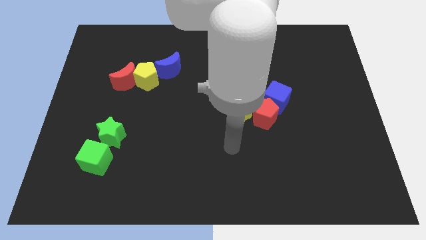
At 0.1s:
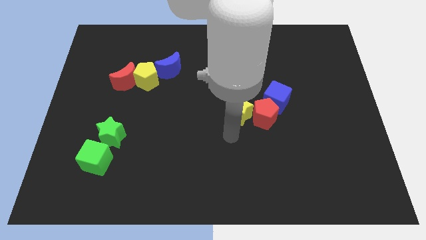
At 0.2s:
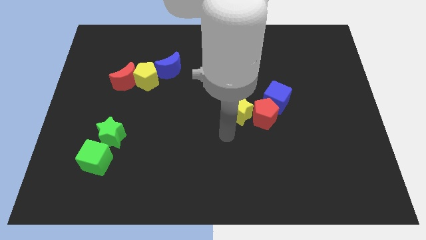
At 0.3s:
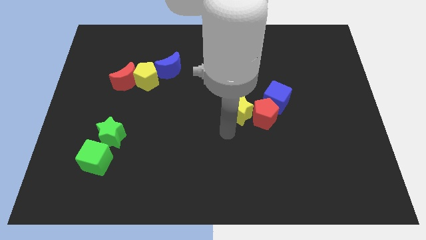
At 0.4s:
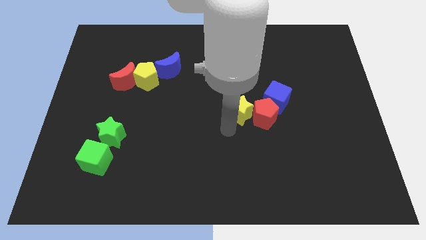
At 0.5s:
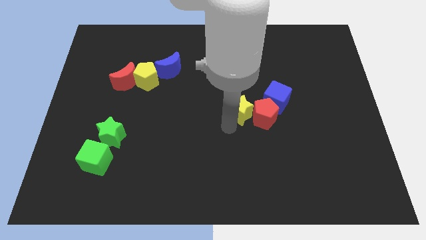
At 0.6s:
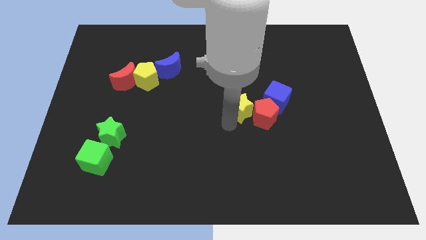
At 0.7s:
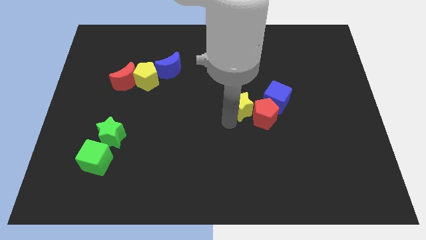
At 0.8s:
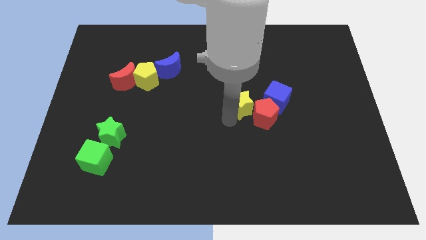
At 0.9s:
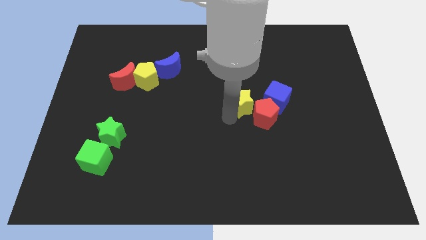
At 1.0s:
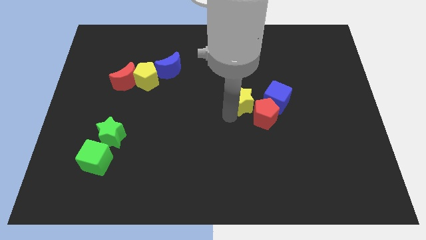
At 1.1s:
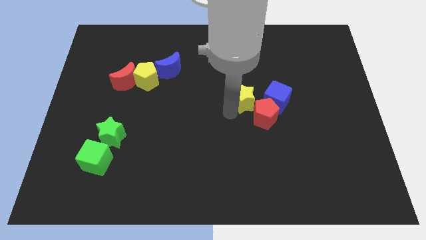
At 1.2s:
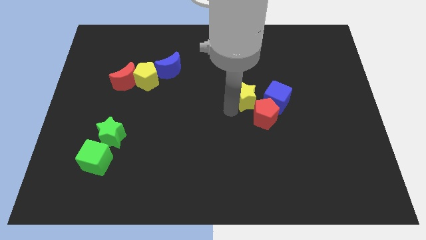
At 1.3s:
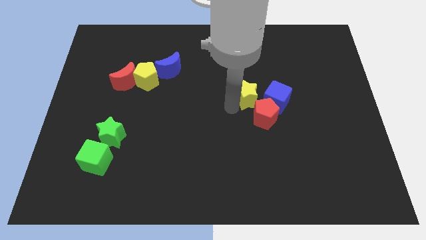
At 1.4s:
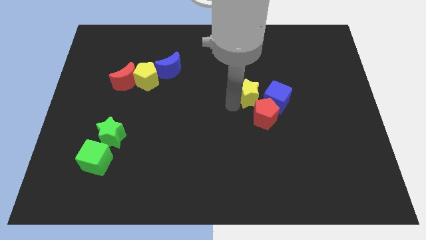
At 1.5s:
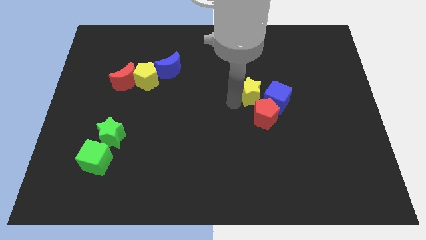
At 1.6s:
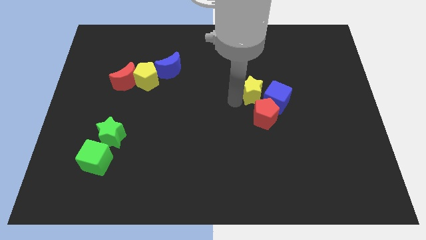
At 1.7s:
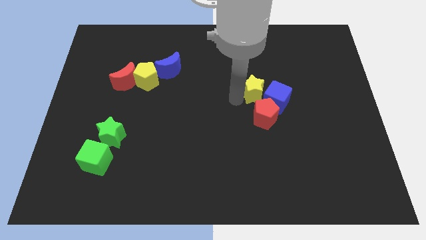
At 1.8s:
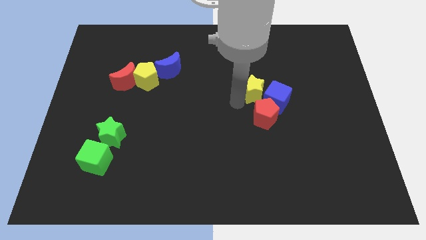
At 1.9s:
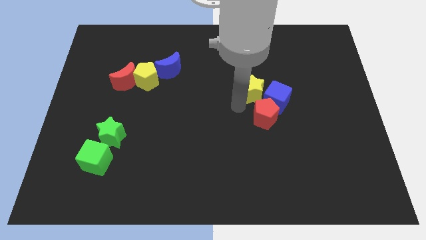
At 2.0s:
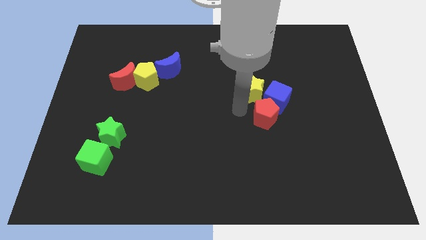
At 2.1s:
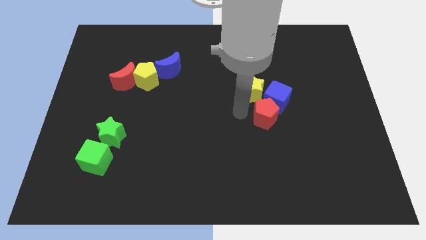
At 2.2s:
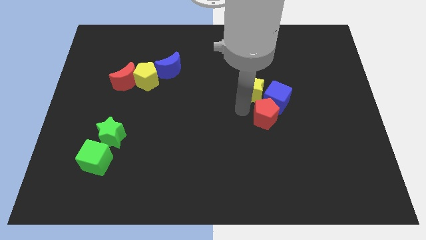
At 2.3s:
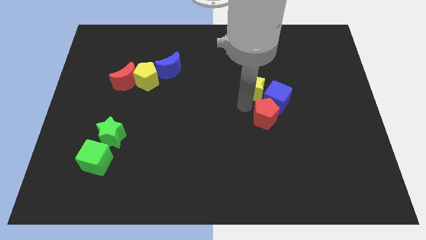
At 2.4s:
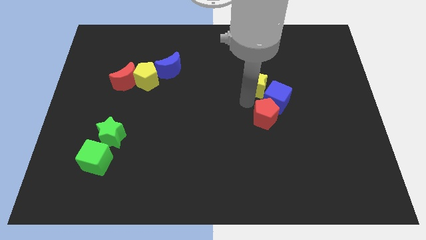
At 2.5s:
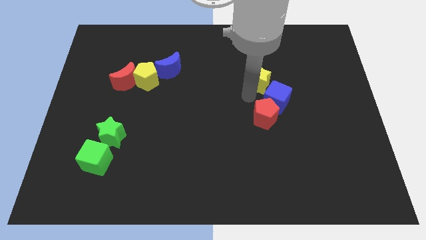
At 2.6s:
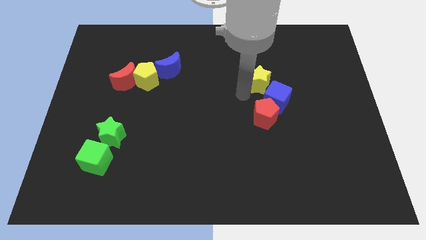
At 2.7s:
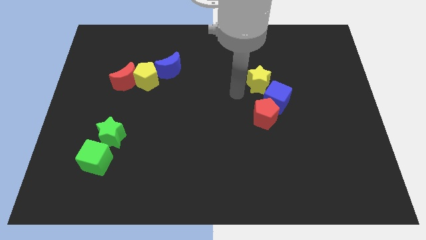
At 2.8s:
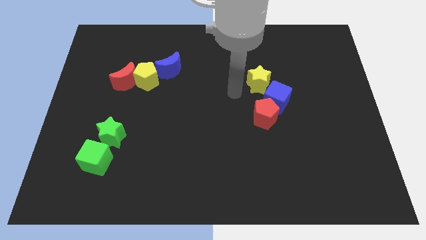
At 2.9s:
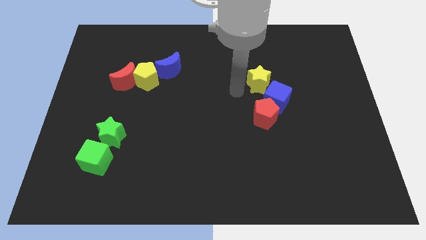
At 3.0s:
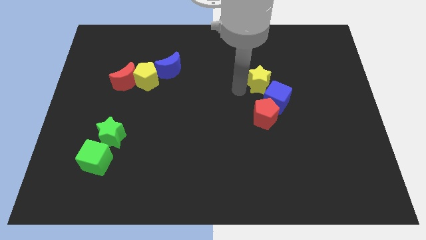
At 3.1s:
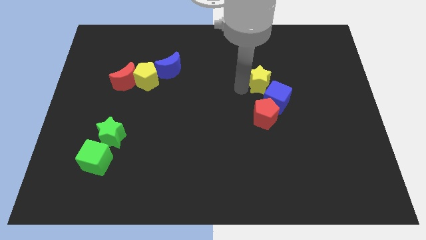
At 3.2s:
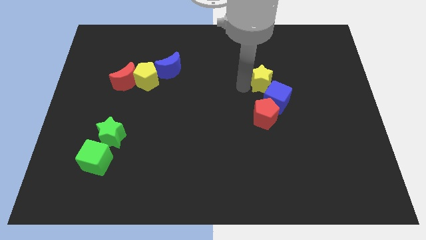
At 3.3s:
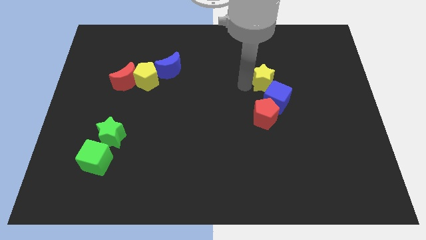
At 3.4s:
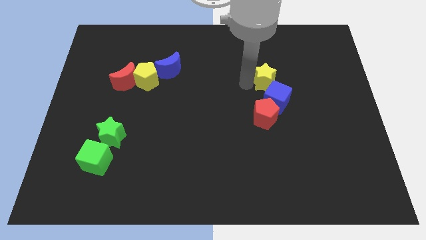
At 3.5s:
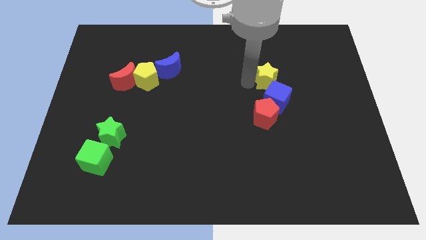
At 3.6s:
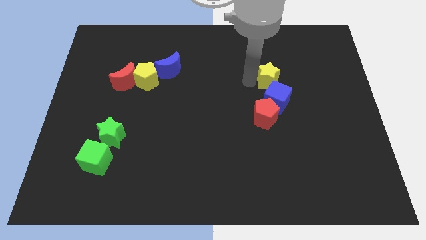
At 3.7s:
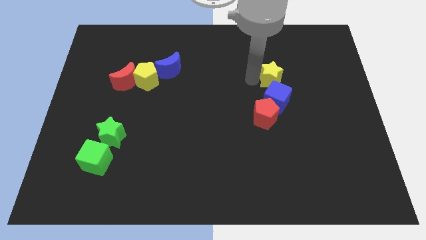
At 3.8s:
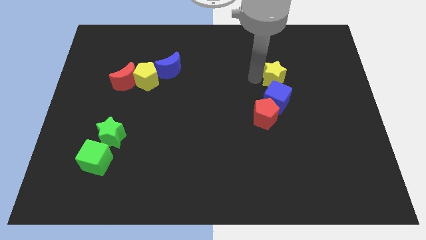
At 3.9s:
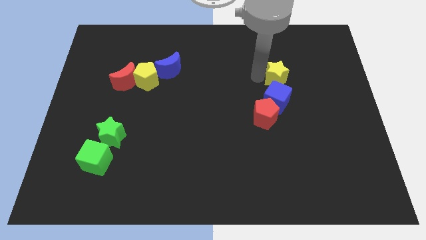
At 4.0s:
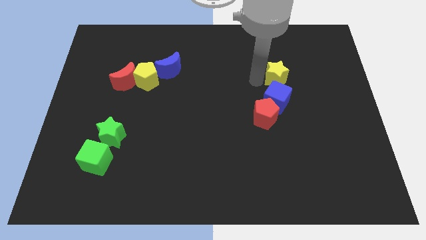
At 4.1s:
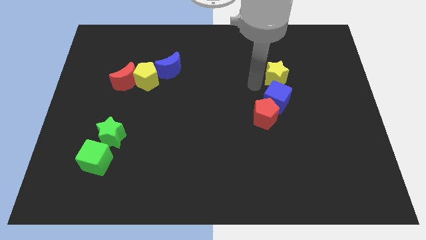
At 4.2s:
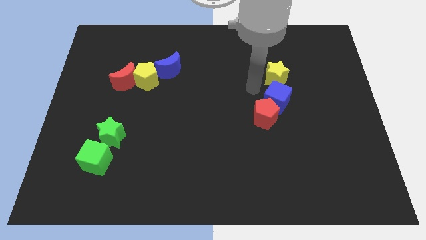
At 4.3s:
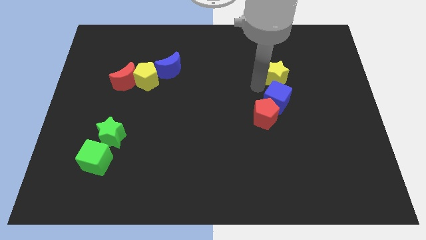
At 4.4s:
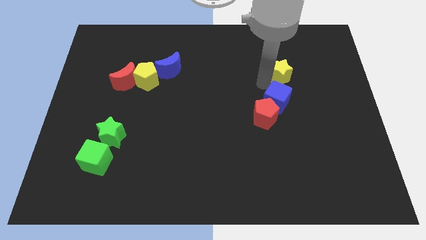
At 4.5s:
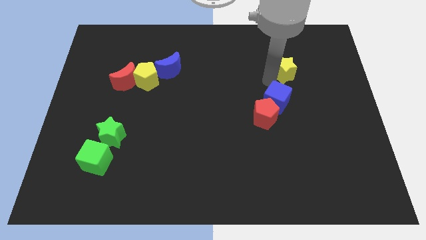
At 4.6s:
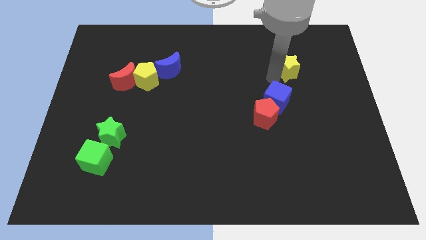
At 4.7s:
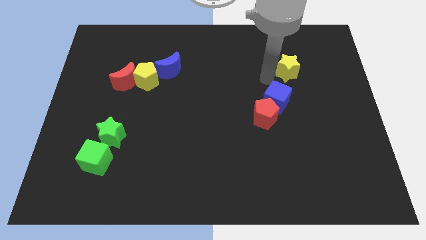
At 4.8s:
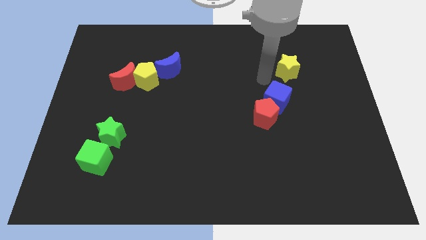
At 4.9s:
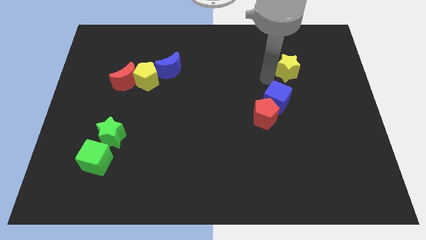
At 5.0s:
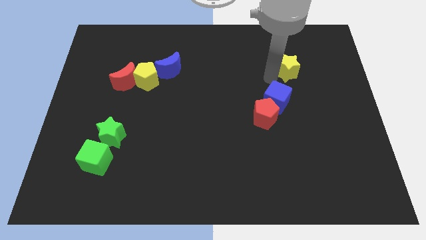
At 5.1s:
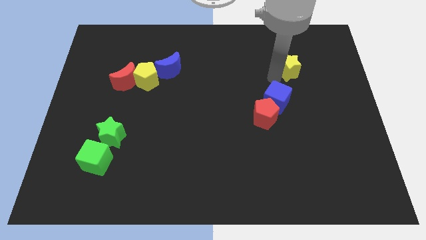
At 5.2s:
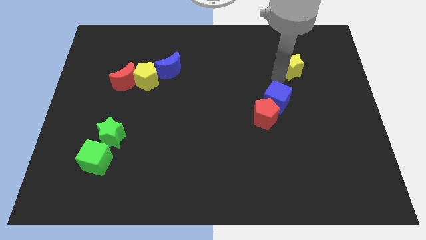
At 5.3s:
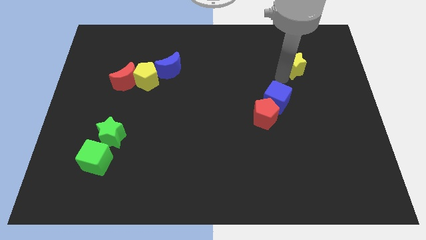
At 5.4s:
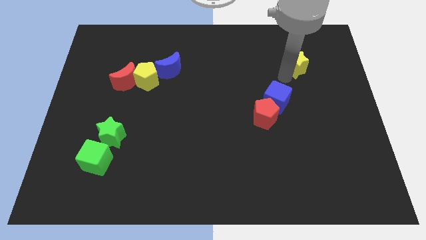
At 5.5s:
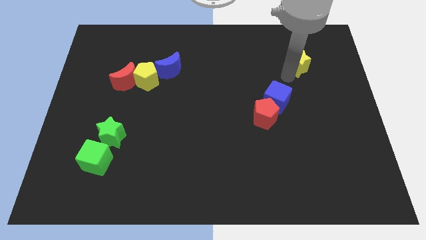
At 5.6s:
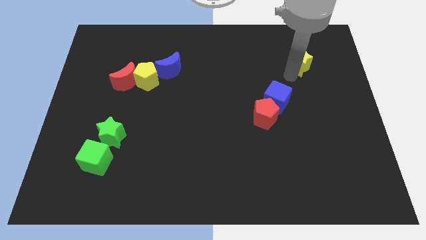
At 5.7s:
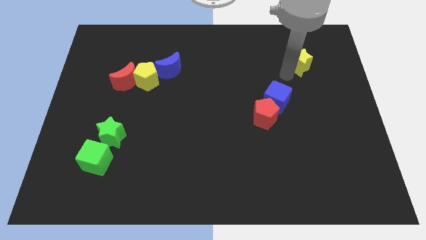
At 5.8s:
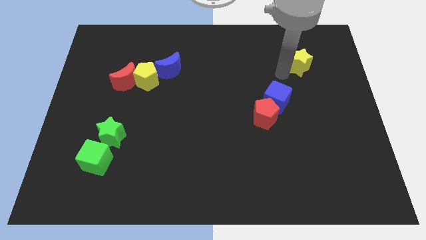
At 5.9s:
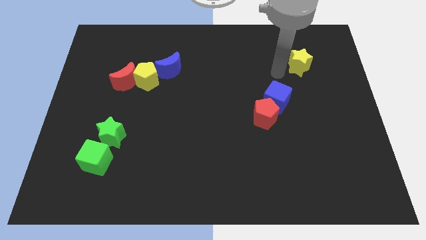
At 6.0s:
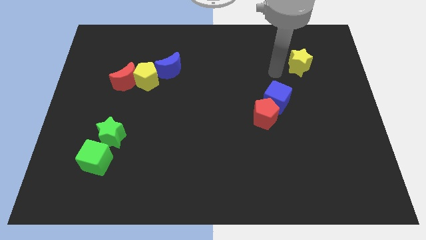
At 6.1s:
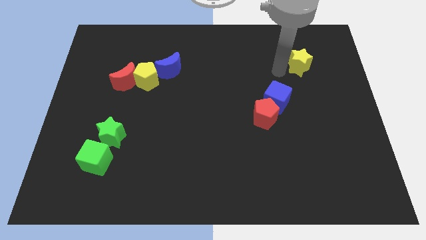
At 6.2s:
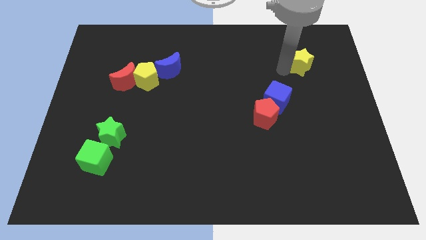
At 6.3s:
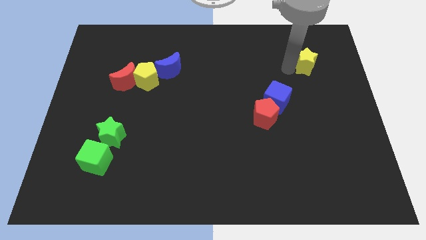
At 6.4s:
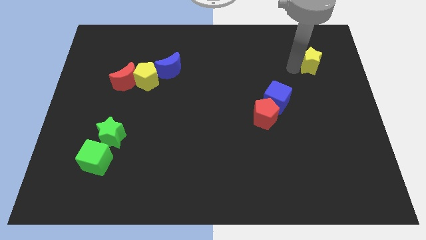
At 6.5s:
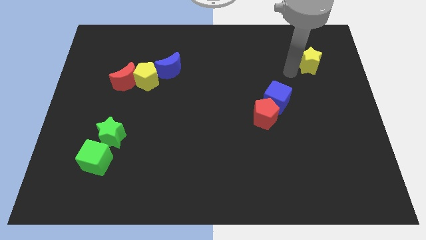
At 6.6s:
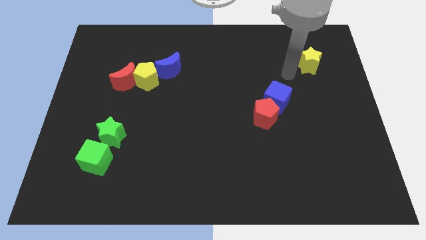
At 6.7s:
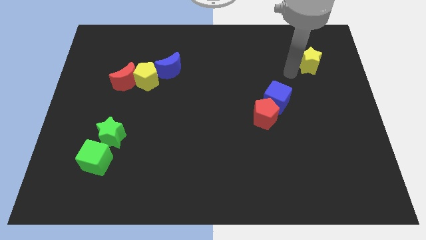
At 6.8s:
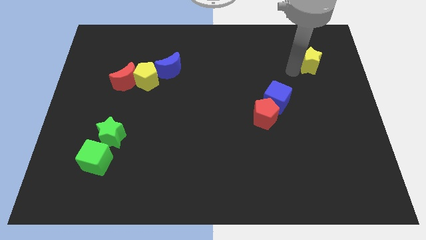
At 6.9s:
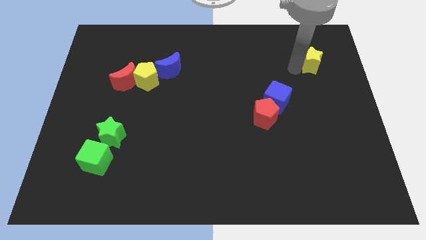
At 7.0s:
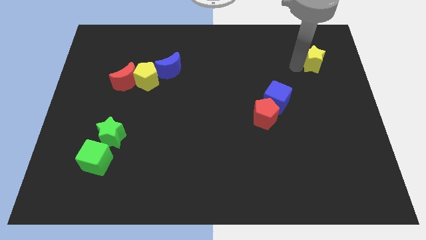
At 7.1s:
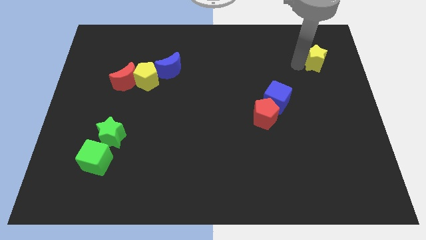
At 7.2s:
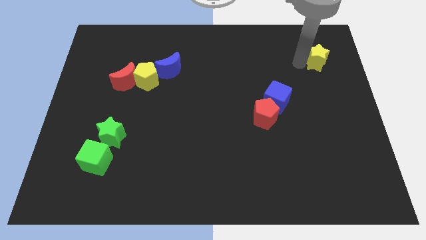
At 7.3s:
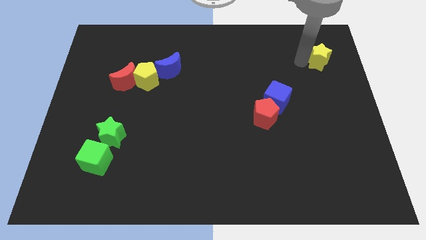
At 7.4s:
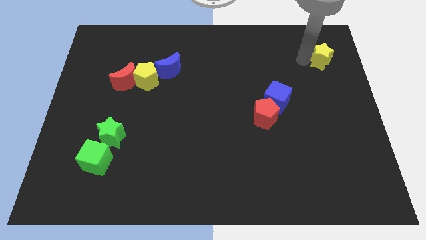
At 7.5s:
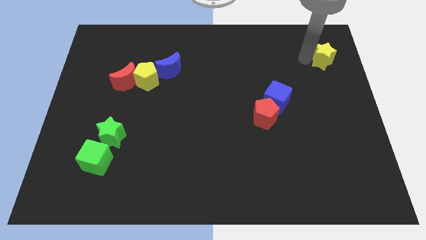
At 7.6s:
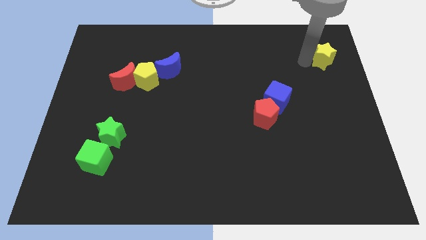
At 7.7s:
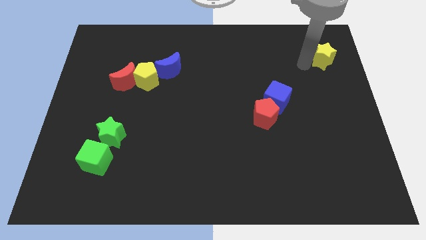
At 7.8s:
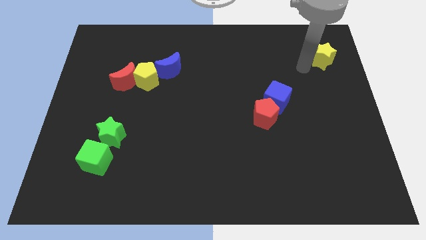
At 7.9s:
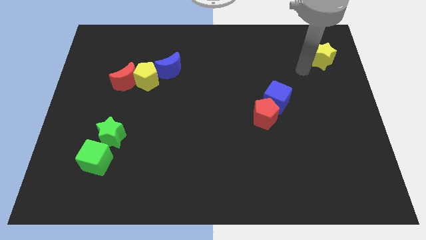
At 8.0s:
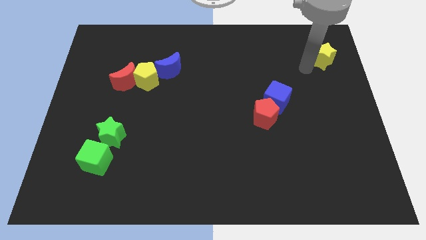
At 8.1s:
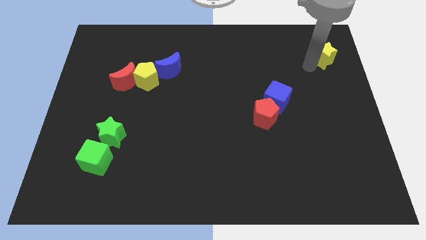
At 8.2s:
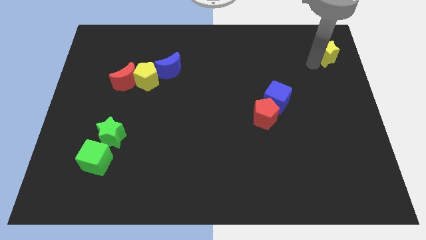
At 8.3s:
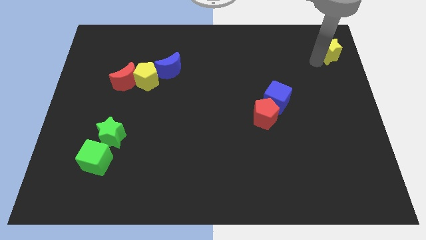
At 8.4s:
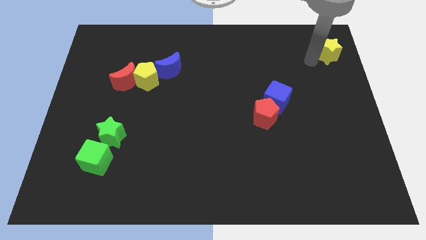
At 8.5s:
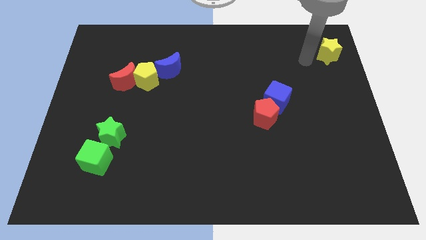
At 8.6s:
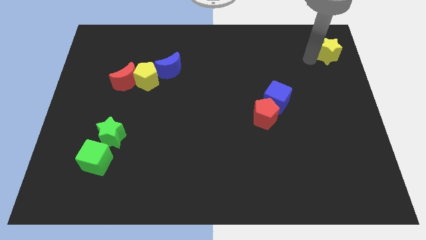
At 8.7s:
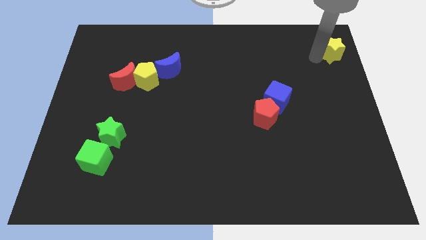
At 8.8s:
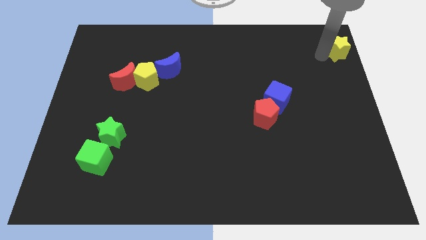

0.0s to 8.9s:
slide the yellow star to the top right corner
